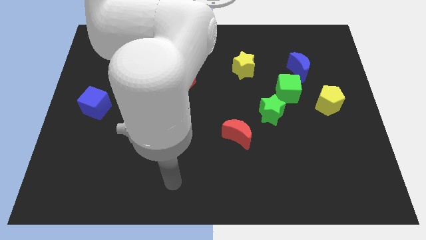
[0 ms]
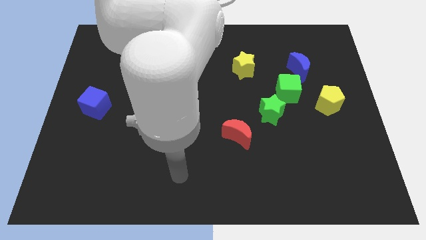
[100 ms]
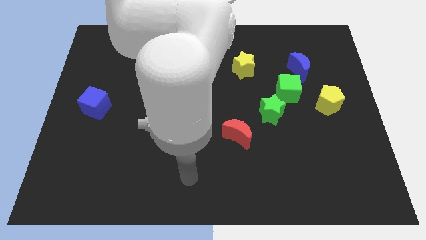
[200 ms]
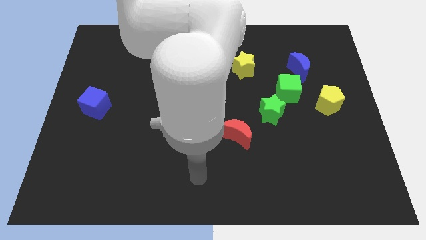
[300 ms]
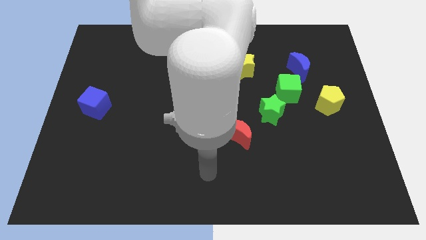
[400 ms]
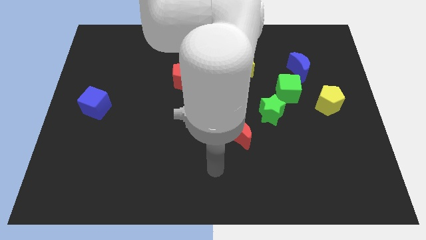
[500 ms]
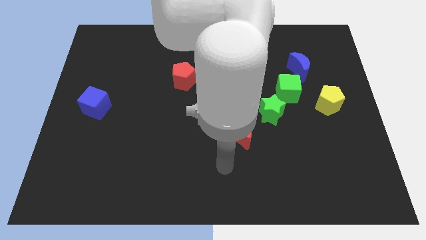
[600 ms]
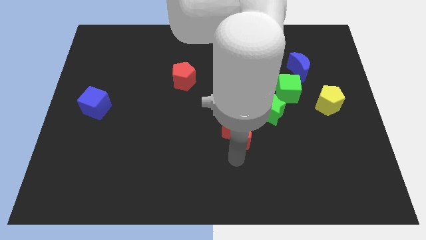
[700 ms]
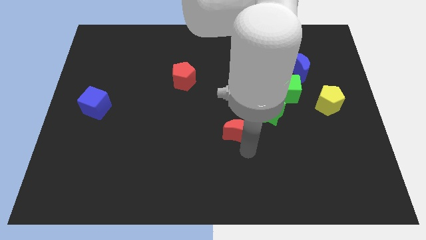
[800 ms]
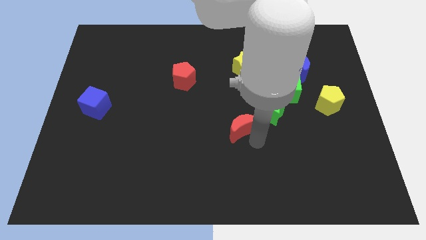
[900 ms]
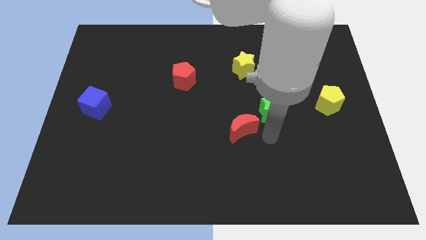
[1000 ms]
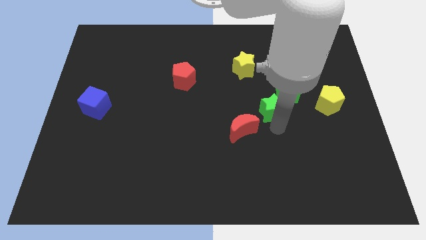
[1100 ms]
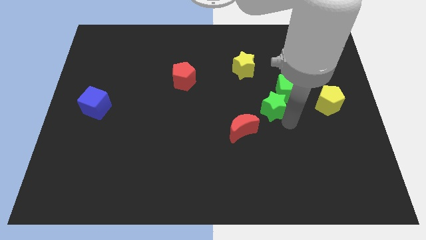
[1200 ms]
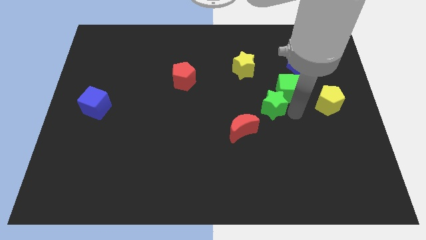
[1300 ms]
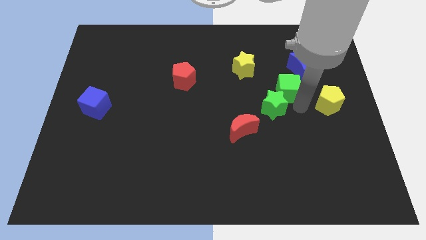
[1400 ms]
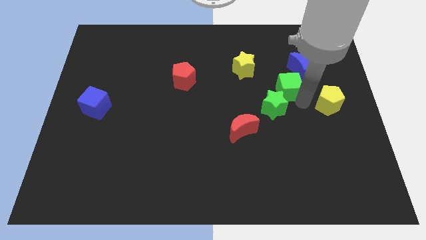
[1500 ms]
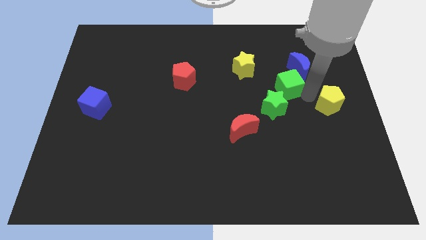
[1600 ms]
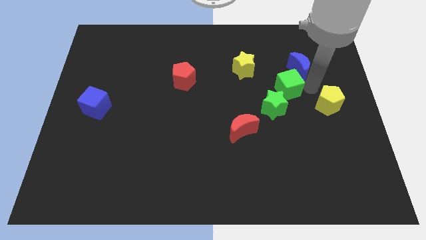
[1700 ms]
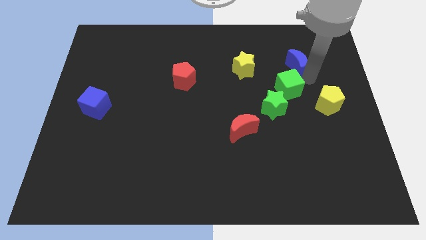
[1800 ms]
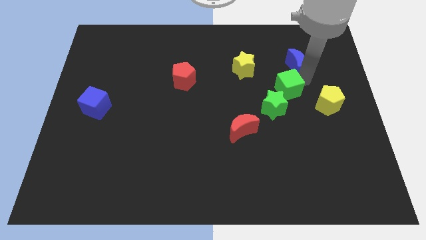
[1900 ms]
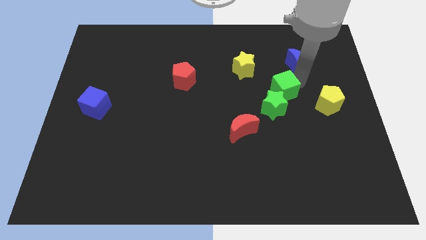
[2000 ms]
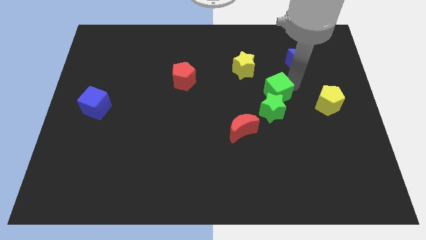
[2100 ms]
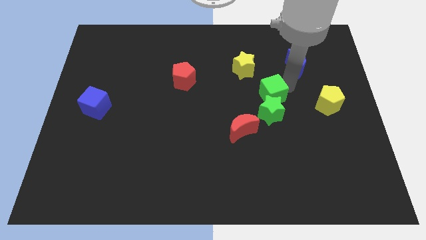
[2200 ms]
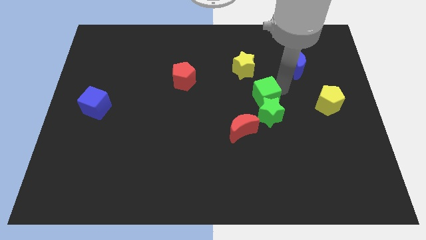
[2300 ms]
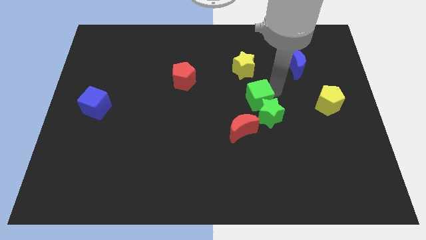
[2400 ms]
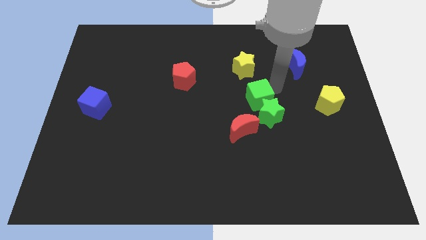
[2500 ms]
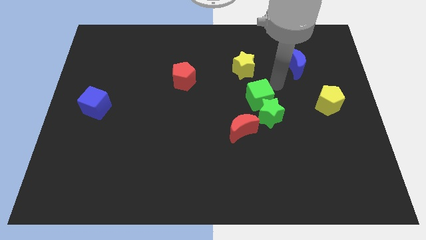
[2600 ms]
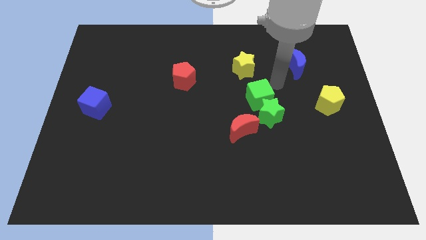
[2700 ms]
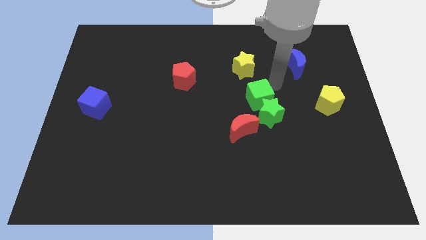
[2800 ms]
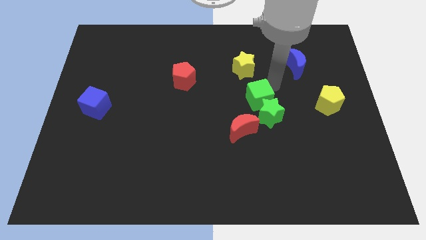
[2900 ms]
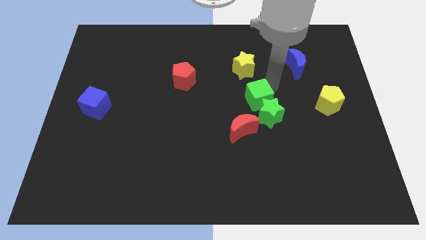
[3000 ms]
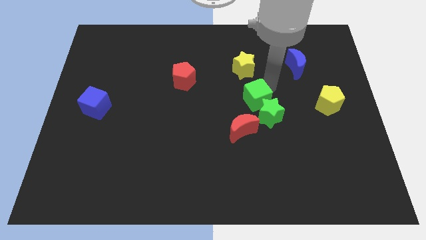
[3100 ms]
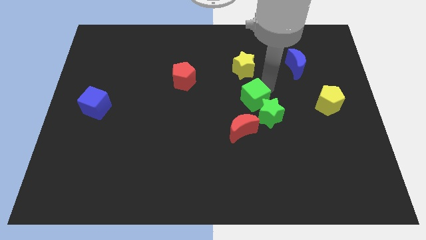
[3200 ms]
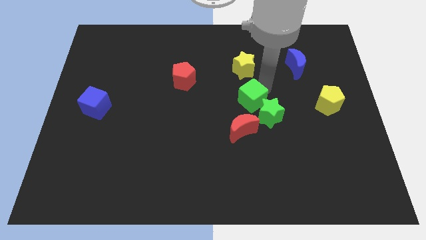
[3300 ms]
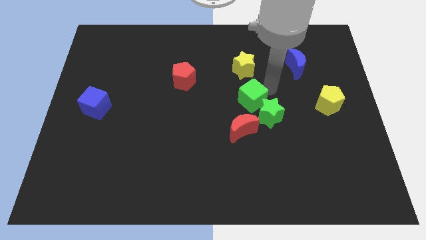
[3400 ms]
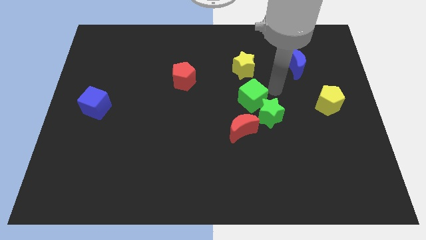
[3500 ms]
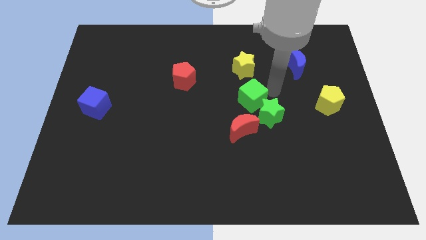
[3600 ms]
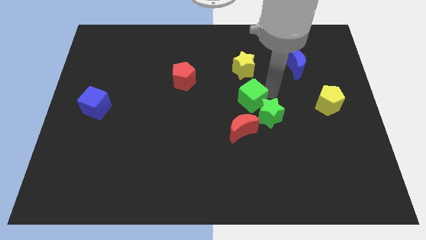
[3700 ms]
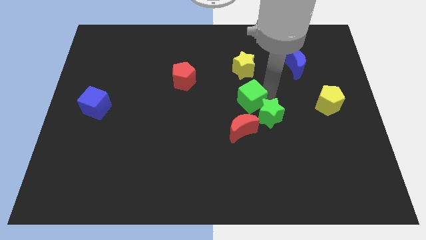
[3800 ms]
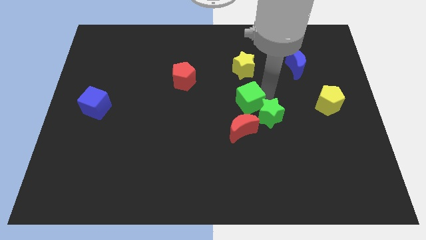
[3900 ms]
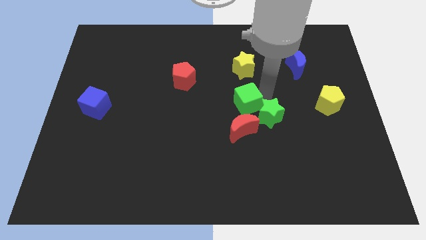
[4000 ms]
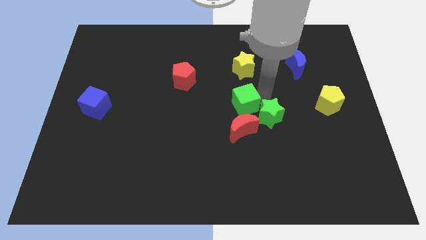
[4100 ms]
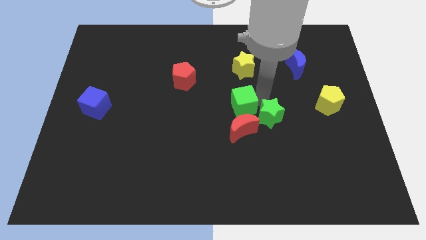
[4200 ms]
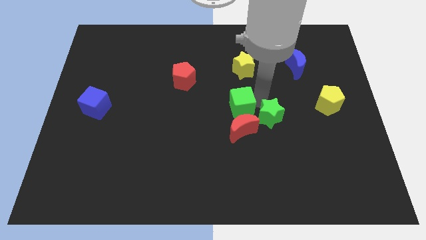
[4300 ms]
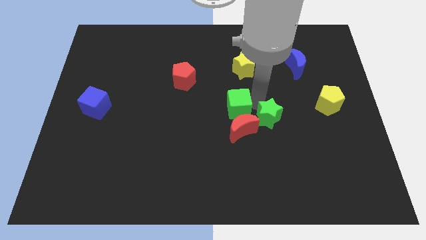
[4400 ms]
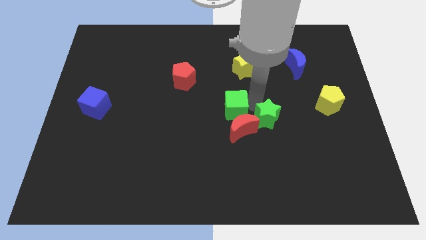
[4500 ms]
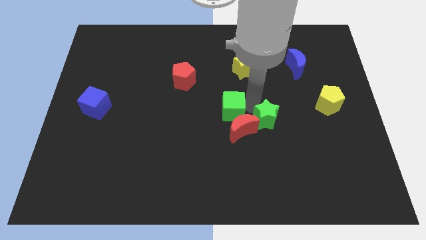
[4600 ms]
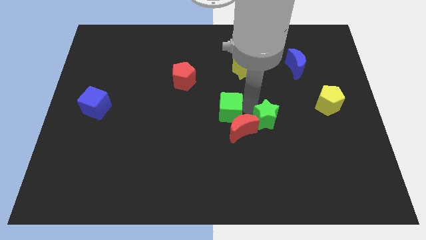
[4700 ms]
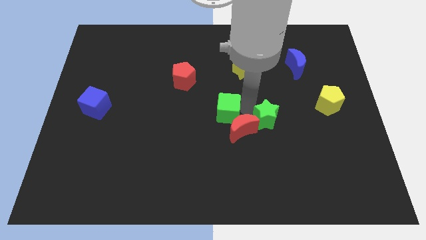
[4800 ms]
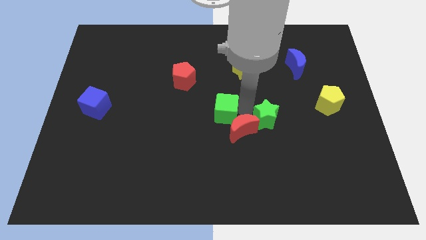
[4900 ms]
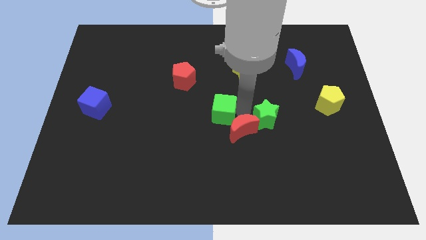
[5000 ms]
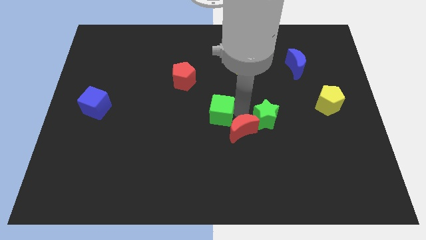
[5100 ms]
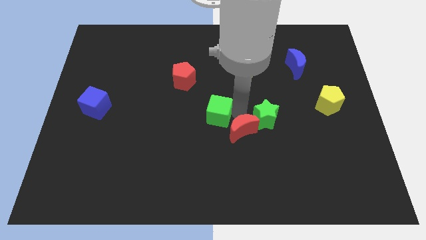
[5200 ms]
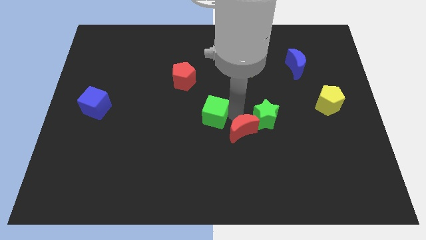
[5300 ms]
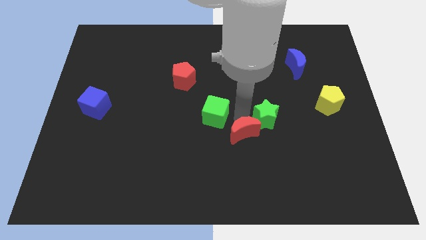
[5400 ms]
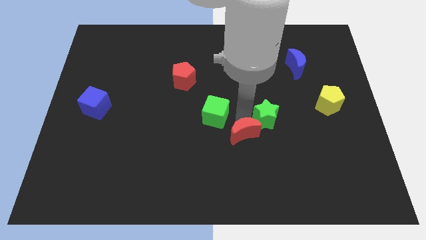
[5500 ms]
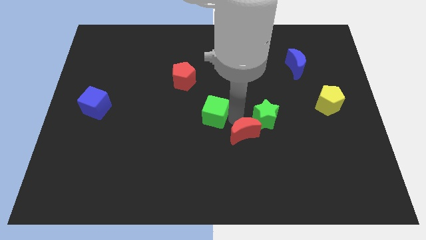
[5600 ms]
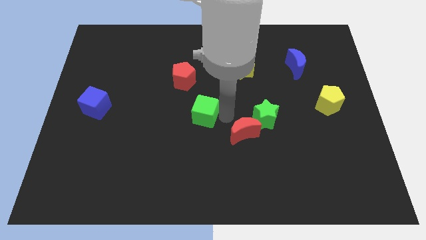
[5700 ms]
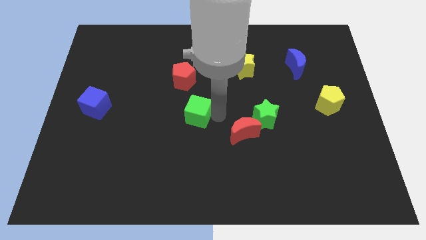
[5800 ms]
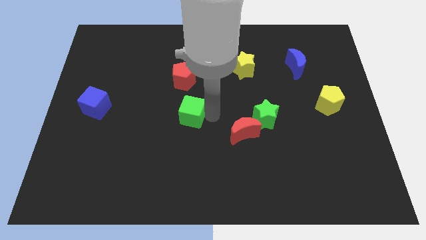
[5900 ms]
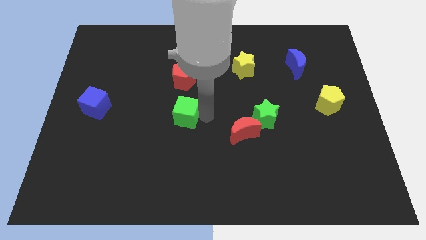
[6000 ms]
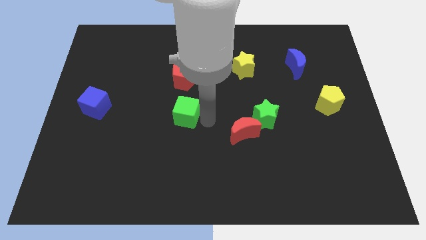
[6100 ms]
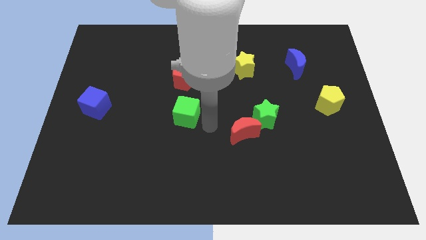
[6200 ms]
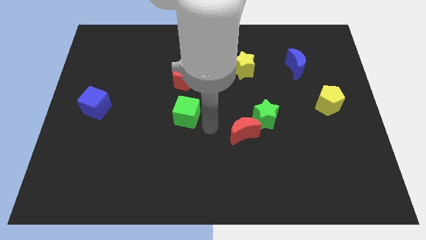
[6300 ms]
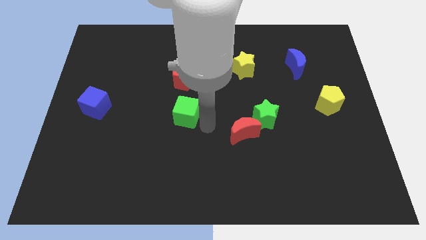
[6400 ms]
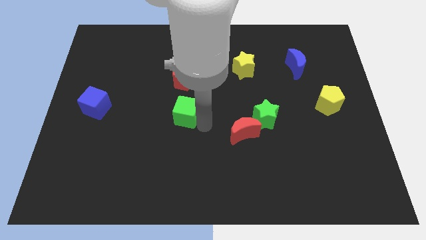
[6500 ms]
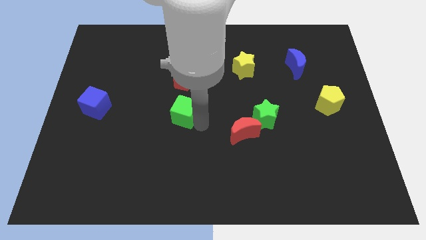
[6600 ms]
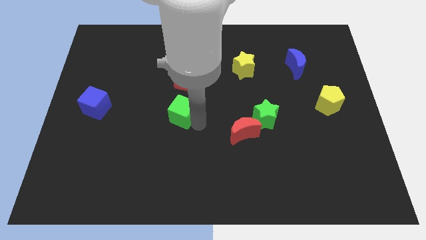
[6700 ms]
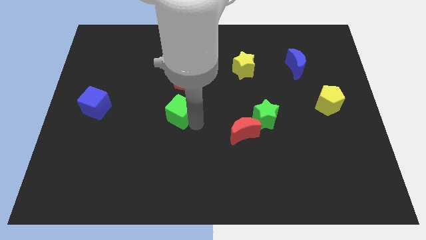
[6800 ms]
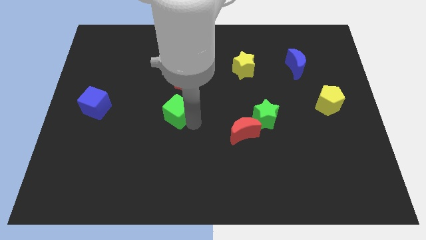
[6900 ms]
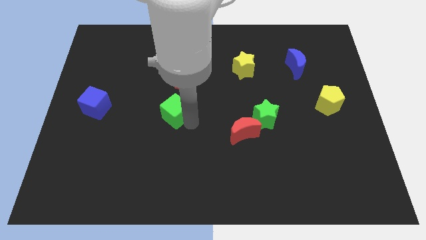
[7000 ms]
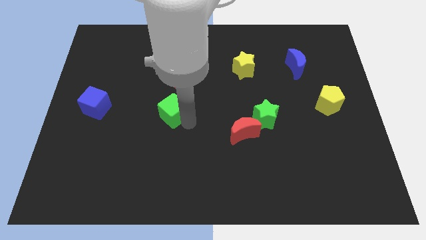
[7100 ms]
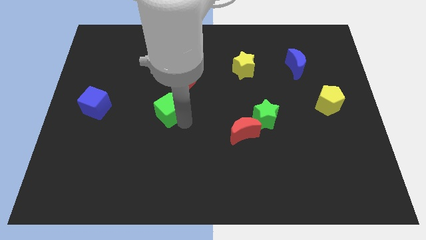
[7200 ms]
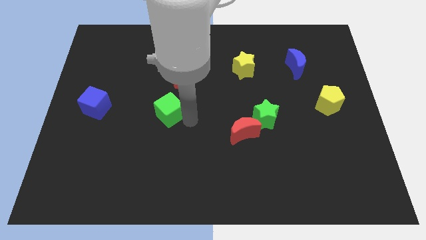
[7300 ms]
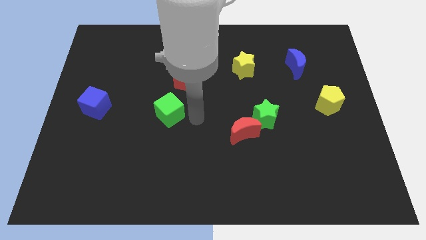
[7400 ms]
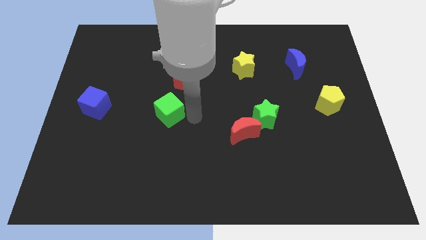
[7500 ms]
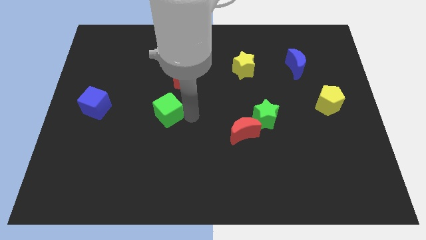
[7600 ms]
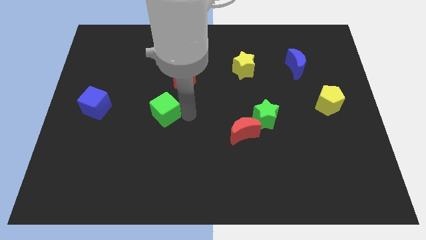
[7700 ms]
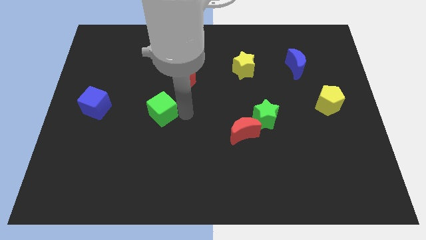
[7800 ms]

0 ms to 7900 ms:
slide the green cube to the right side of the blue cube
